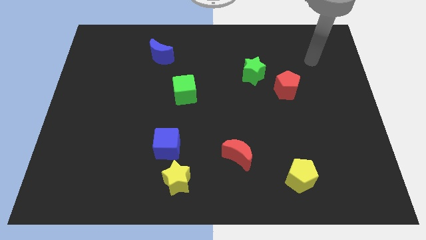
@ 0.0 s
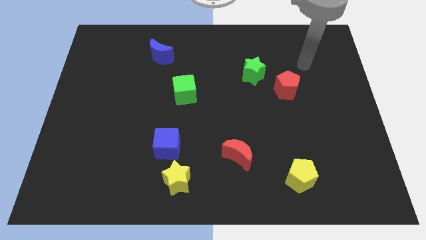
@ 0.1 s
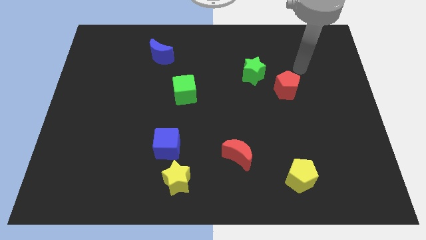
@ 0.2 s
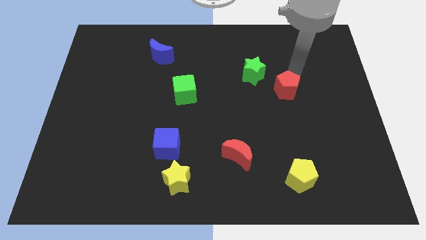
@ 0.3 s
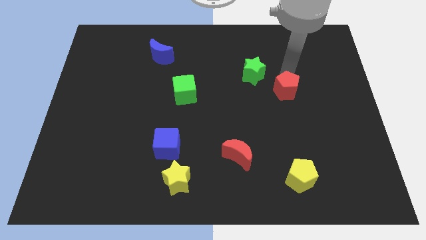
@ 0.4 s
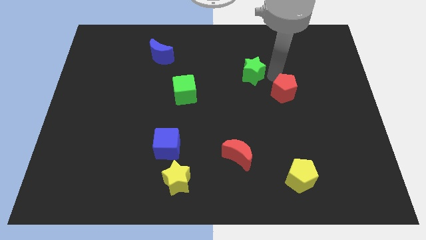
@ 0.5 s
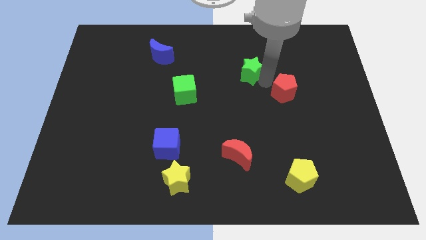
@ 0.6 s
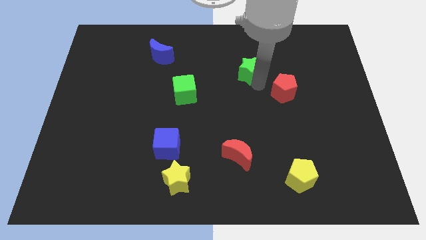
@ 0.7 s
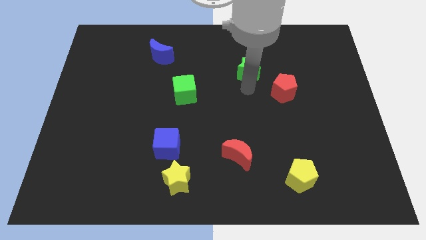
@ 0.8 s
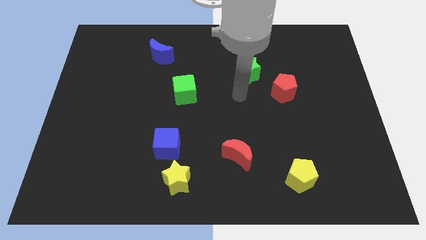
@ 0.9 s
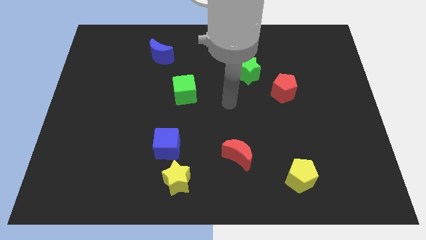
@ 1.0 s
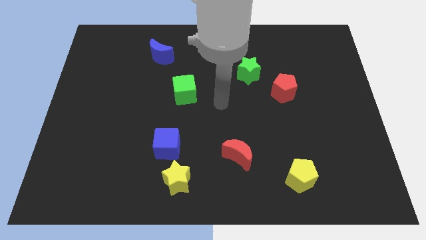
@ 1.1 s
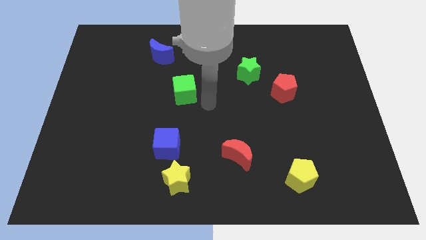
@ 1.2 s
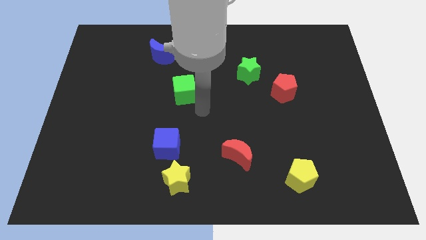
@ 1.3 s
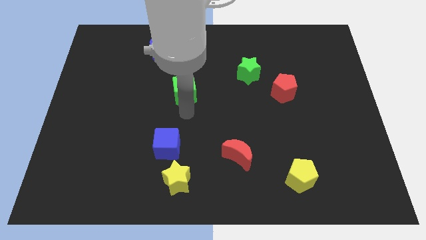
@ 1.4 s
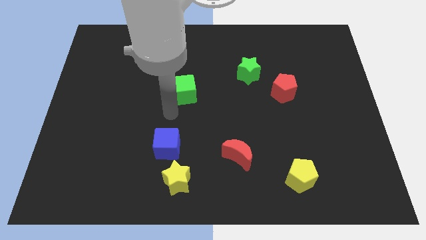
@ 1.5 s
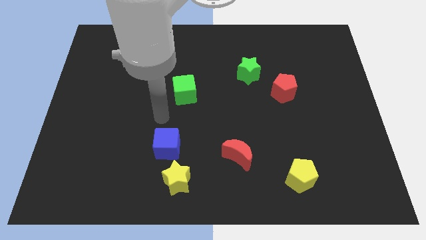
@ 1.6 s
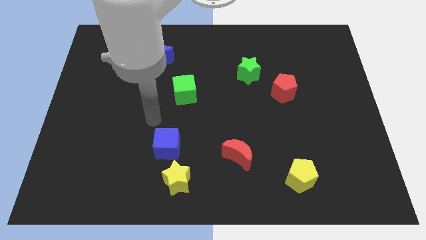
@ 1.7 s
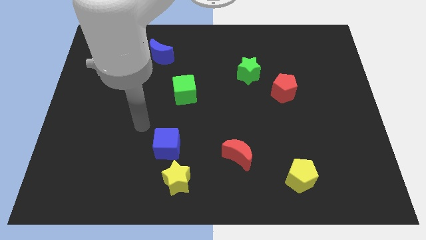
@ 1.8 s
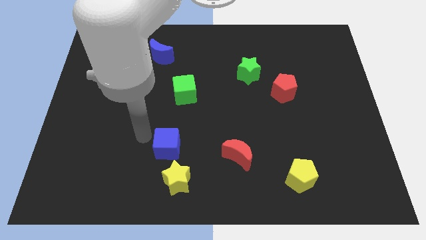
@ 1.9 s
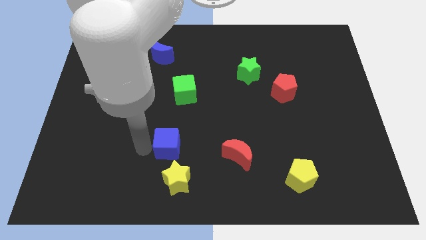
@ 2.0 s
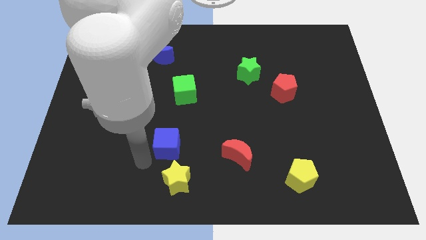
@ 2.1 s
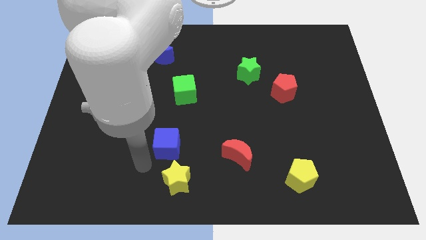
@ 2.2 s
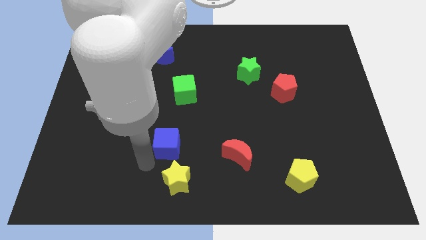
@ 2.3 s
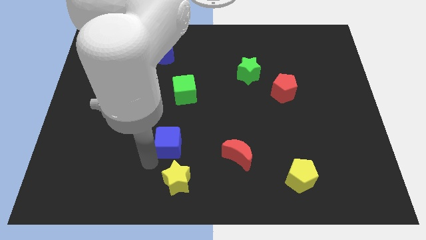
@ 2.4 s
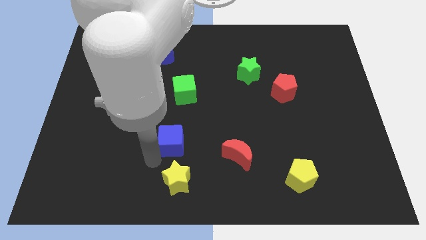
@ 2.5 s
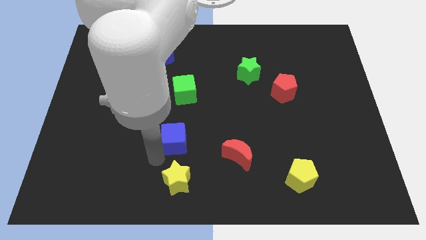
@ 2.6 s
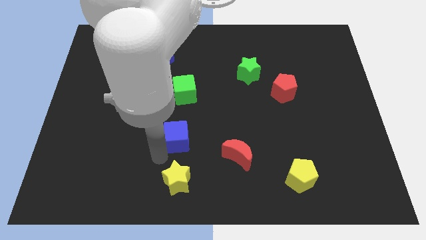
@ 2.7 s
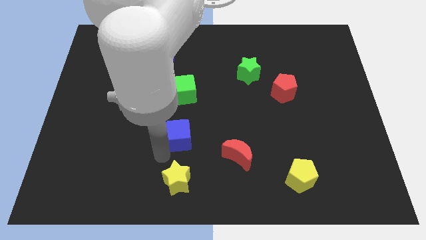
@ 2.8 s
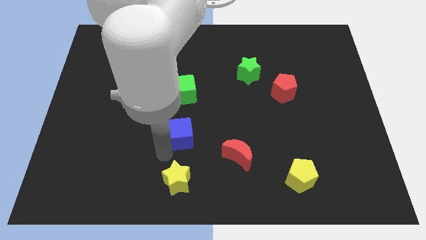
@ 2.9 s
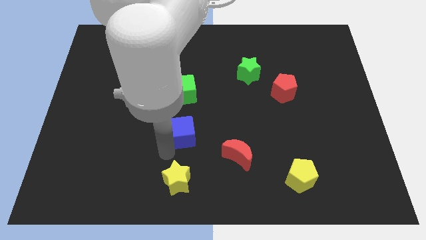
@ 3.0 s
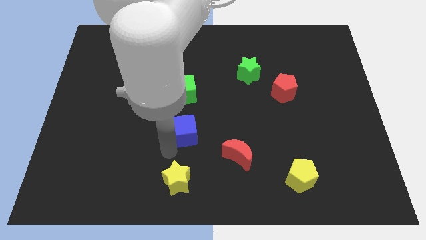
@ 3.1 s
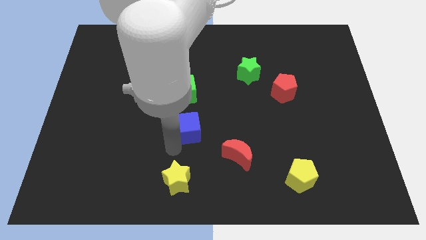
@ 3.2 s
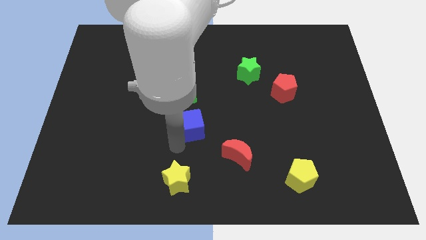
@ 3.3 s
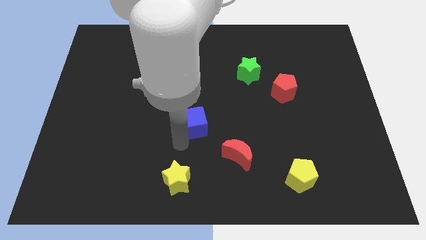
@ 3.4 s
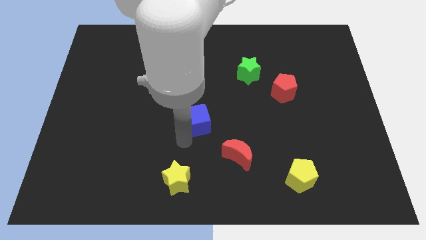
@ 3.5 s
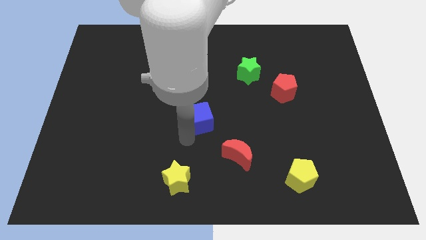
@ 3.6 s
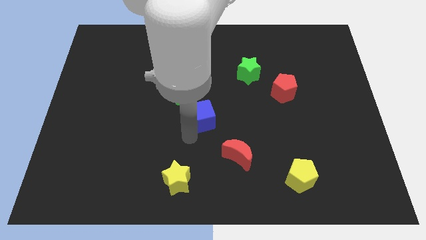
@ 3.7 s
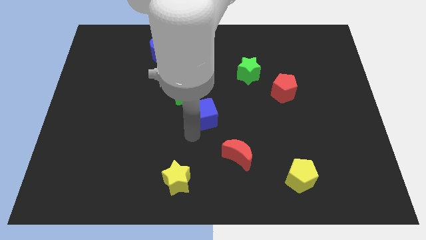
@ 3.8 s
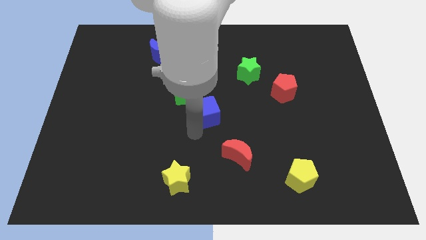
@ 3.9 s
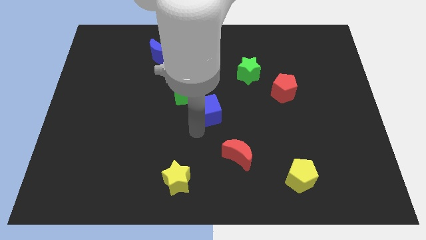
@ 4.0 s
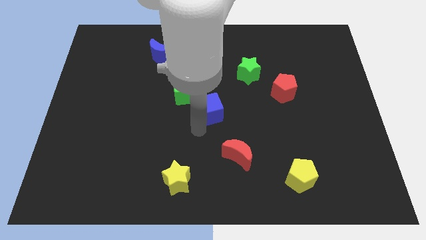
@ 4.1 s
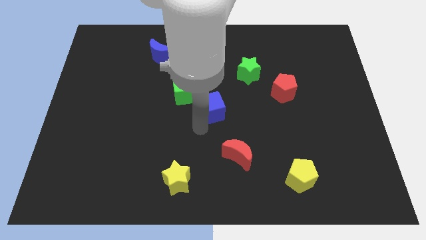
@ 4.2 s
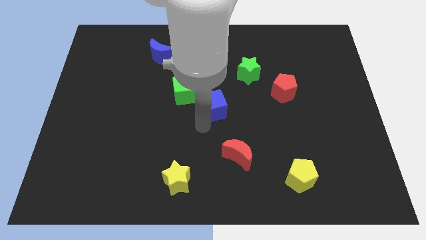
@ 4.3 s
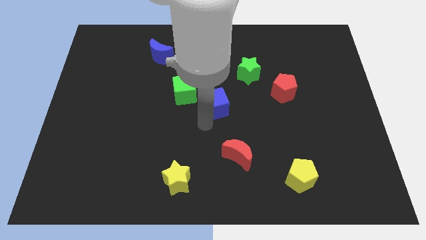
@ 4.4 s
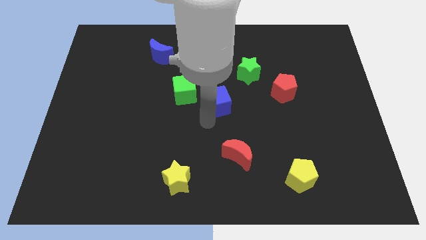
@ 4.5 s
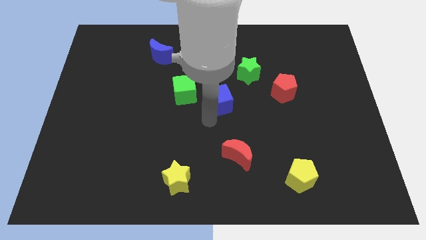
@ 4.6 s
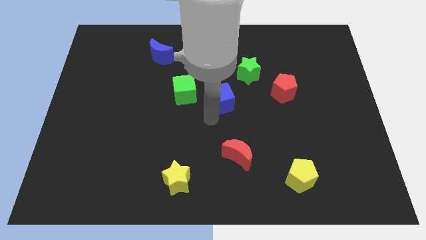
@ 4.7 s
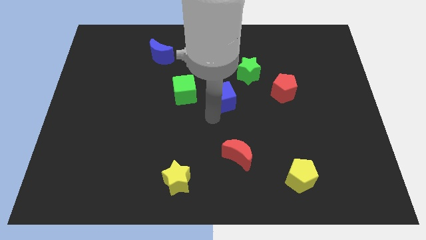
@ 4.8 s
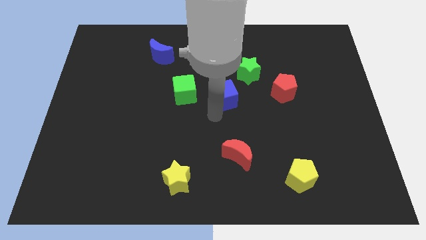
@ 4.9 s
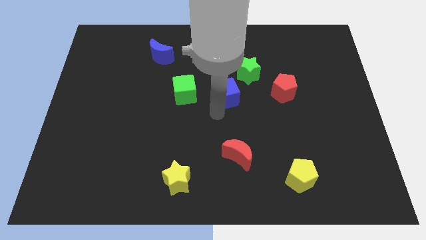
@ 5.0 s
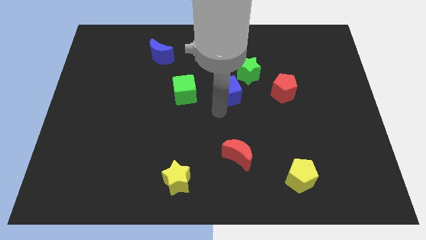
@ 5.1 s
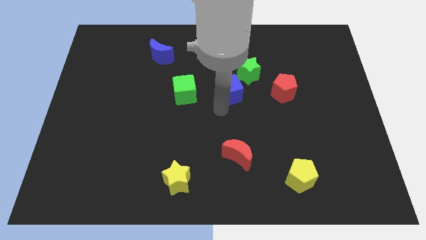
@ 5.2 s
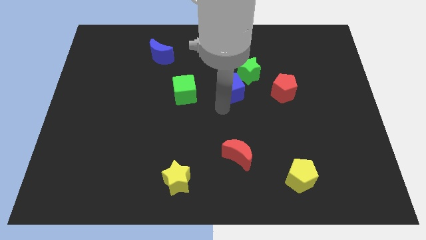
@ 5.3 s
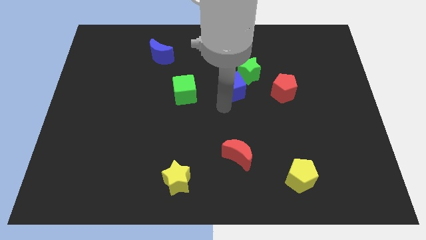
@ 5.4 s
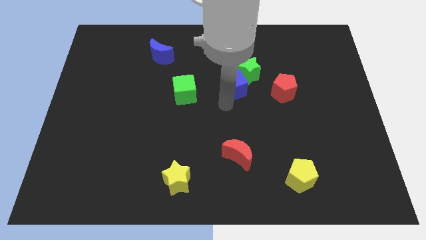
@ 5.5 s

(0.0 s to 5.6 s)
put the blue cube to the green star

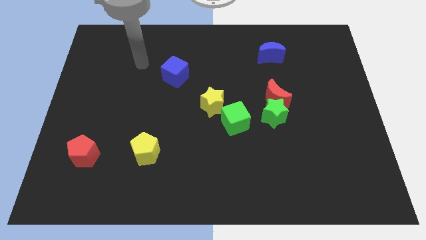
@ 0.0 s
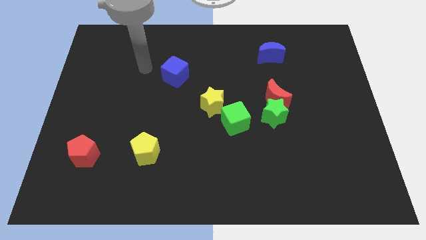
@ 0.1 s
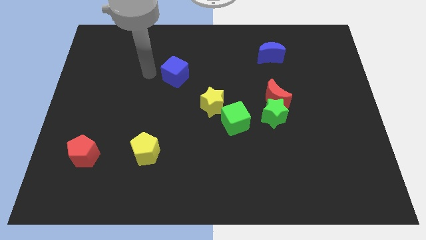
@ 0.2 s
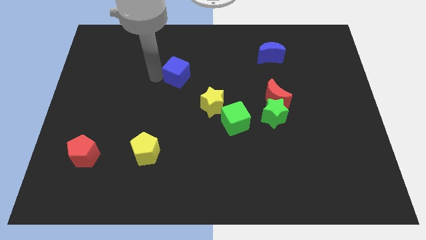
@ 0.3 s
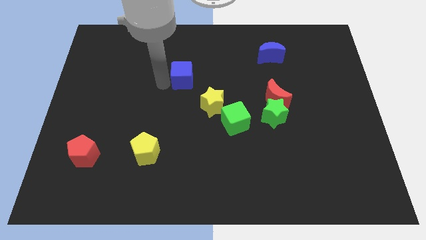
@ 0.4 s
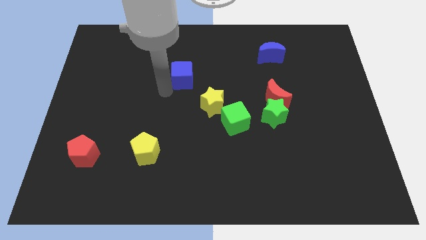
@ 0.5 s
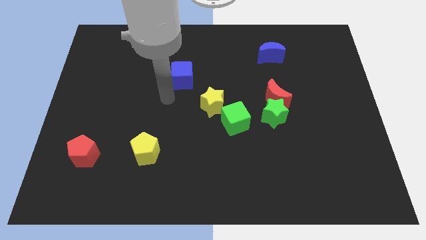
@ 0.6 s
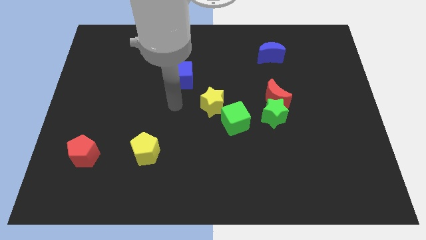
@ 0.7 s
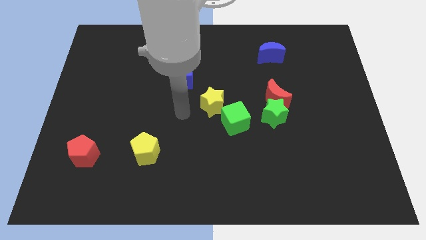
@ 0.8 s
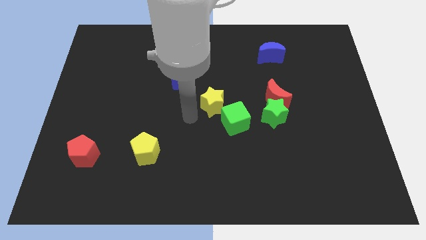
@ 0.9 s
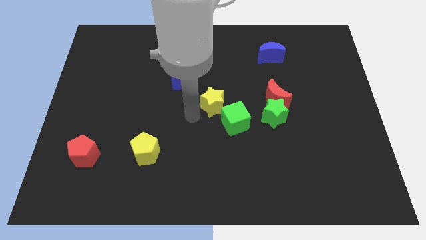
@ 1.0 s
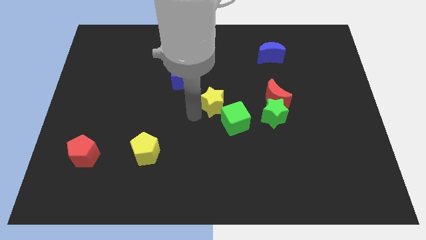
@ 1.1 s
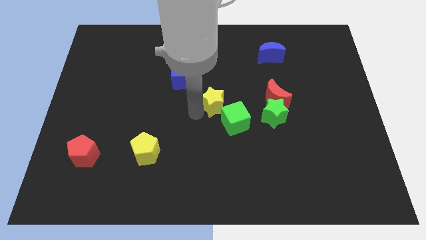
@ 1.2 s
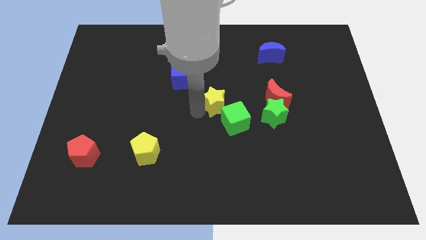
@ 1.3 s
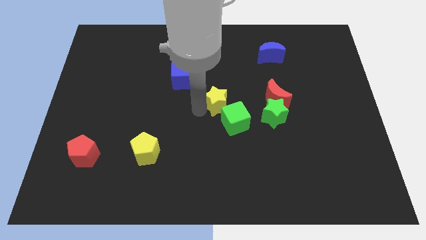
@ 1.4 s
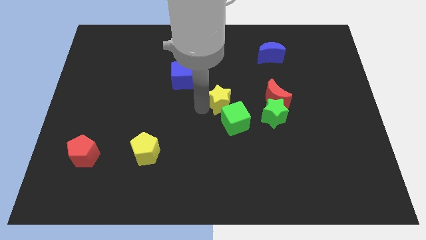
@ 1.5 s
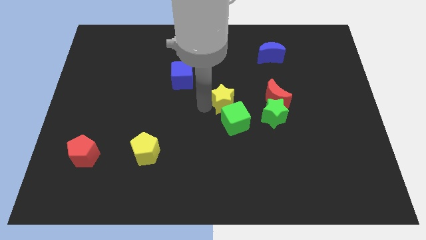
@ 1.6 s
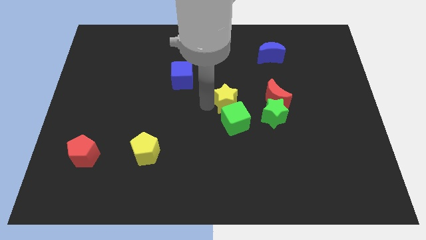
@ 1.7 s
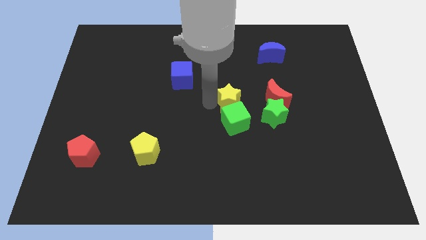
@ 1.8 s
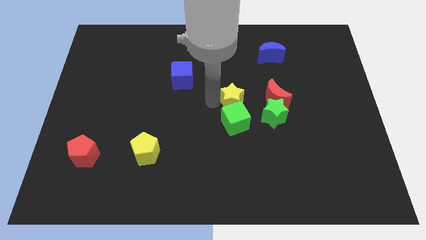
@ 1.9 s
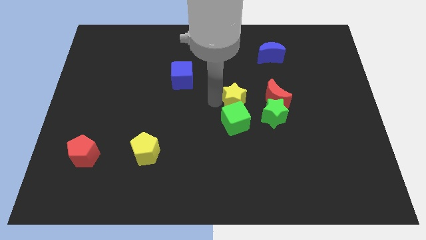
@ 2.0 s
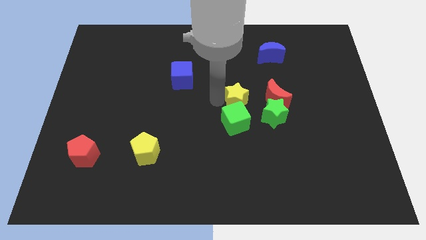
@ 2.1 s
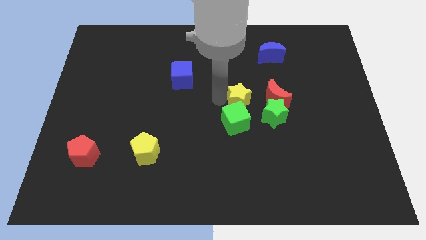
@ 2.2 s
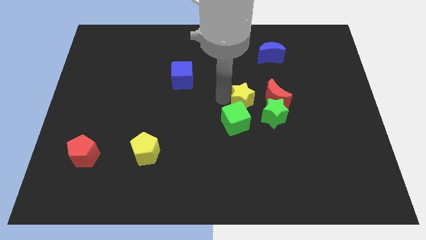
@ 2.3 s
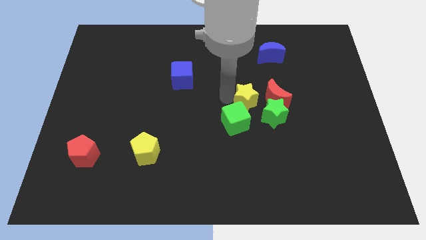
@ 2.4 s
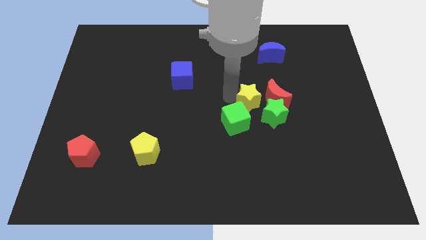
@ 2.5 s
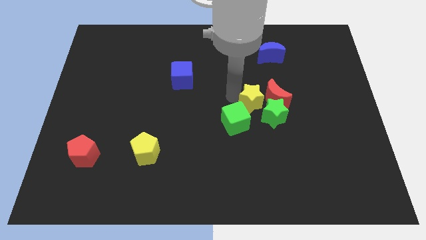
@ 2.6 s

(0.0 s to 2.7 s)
move the yellow star close to the red moon
